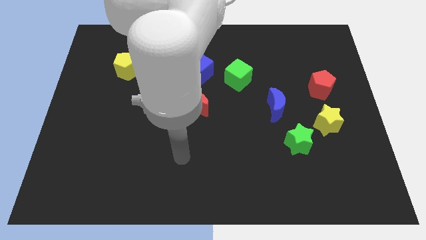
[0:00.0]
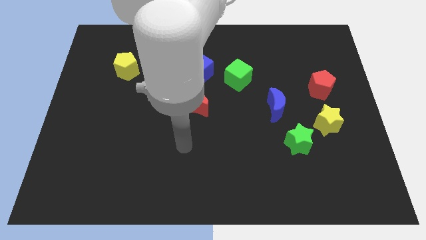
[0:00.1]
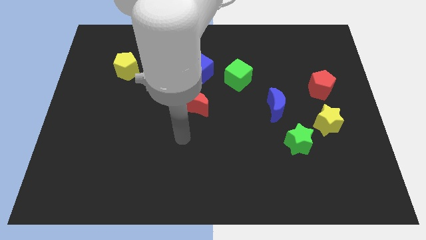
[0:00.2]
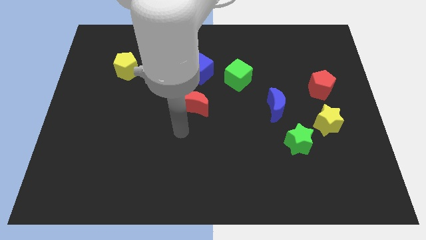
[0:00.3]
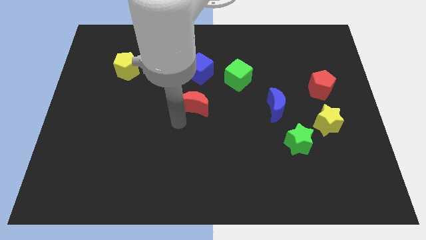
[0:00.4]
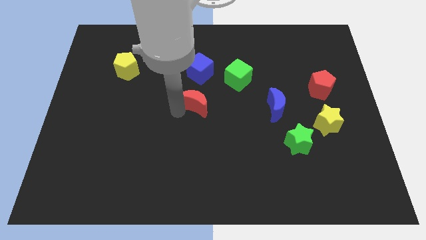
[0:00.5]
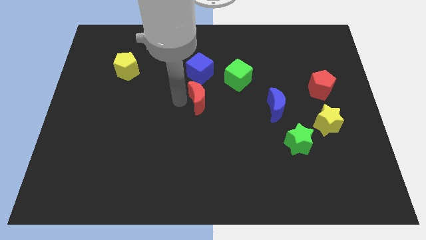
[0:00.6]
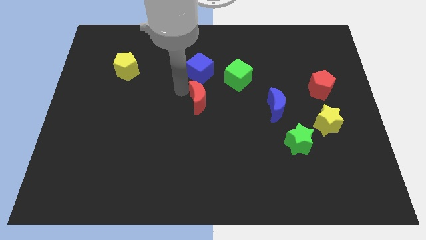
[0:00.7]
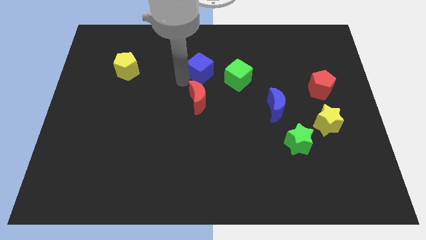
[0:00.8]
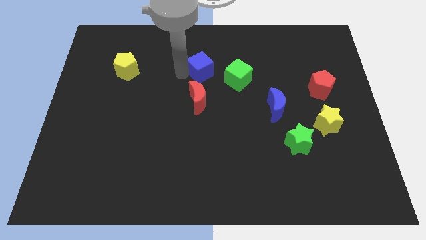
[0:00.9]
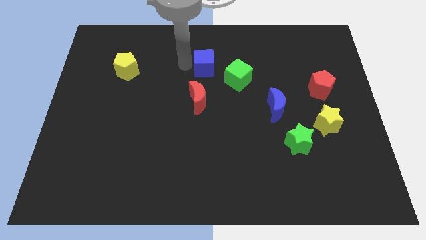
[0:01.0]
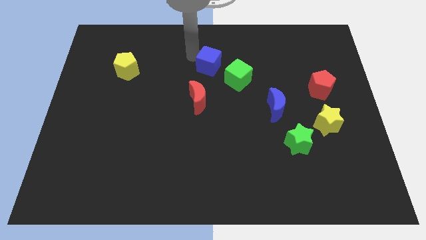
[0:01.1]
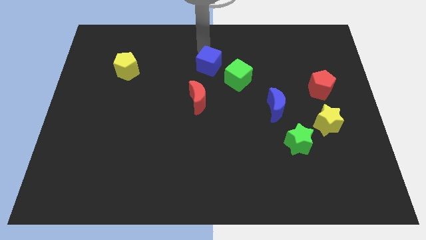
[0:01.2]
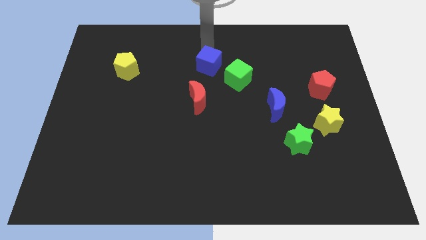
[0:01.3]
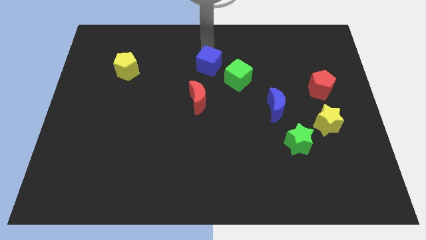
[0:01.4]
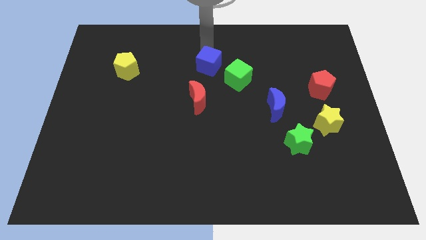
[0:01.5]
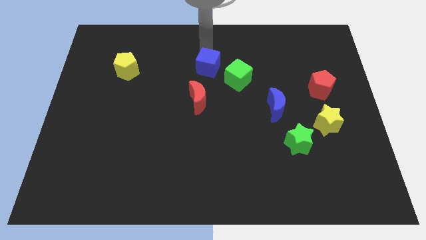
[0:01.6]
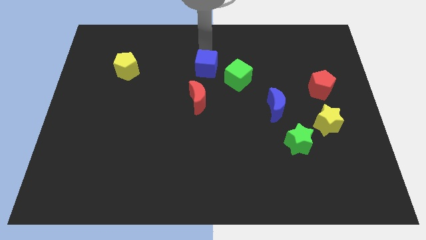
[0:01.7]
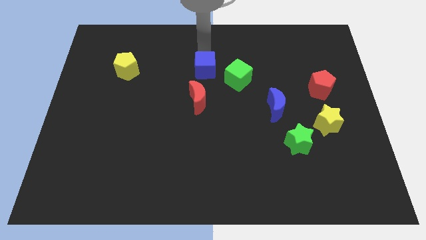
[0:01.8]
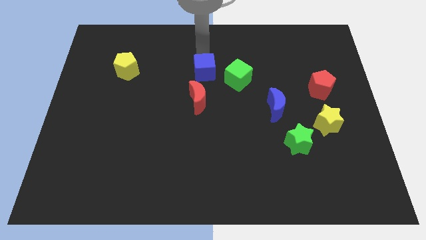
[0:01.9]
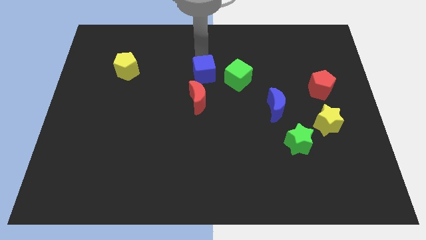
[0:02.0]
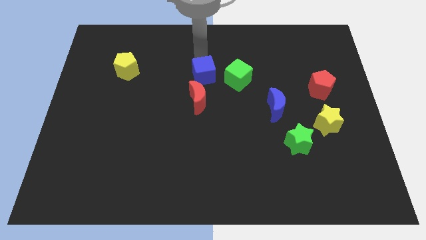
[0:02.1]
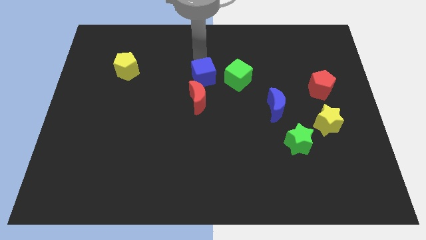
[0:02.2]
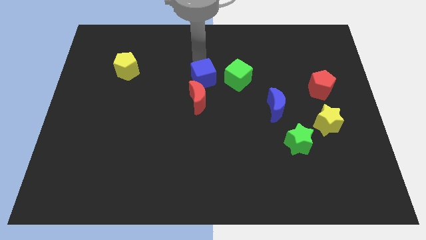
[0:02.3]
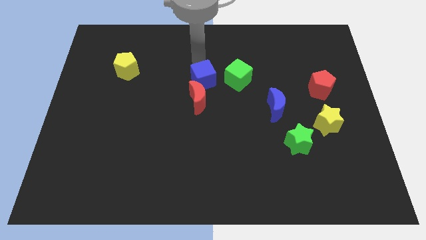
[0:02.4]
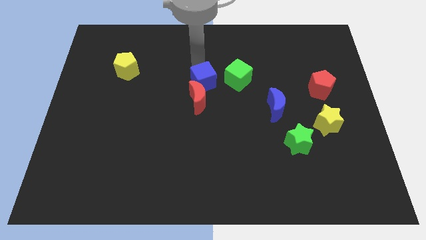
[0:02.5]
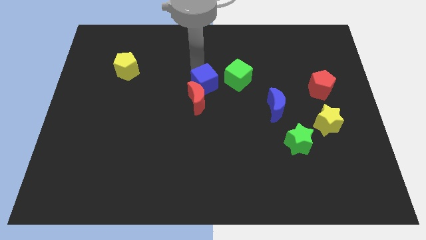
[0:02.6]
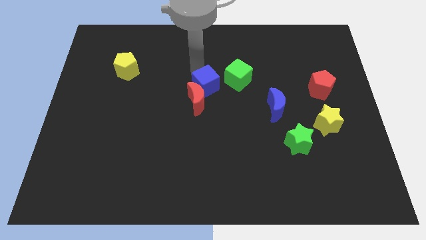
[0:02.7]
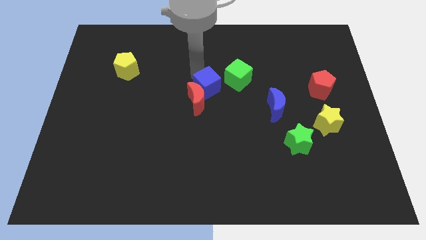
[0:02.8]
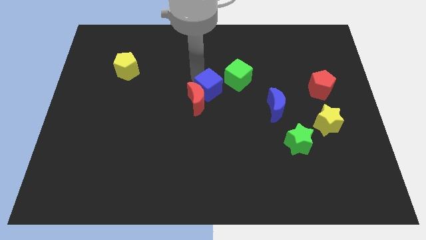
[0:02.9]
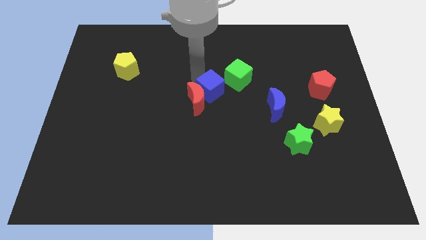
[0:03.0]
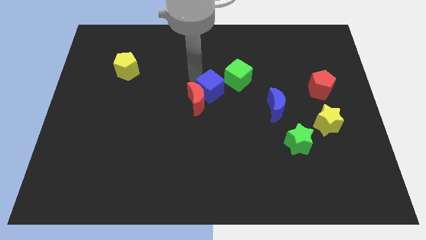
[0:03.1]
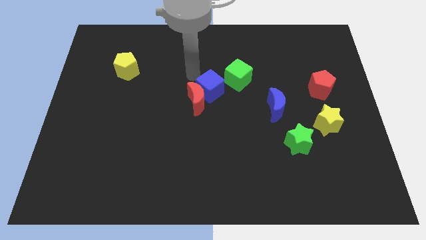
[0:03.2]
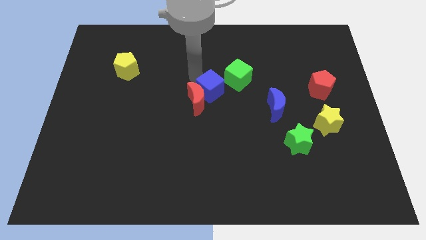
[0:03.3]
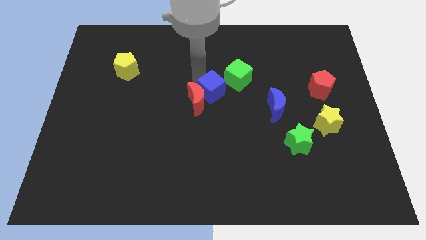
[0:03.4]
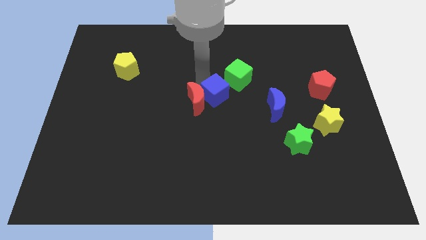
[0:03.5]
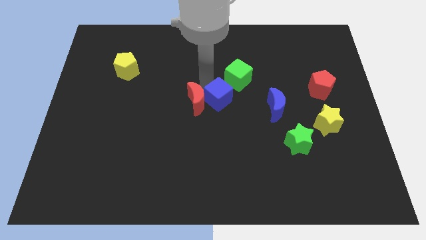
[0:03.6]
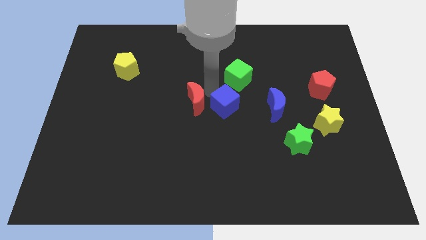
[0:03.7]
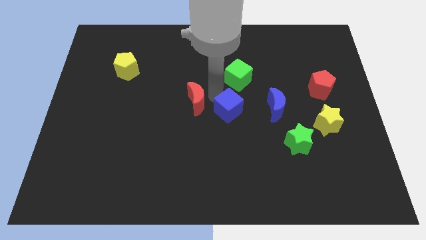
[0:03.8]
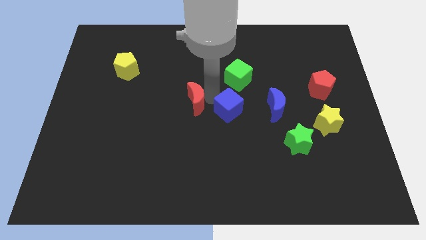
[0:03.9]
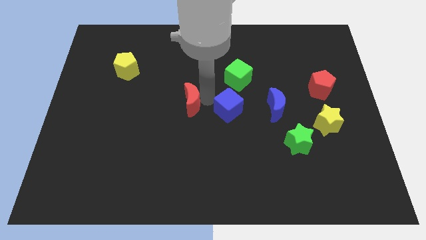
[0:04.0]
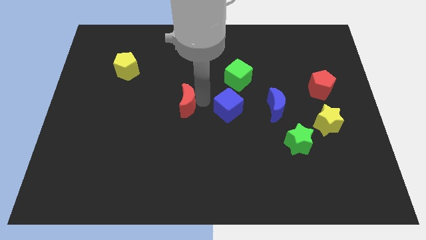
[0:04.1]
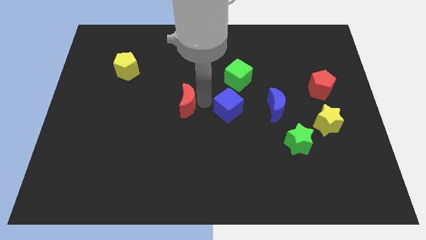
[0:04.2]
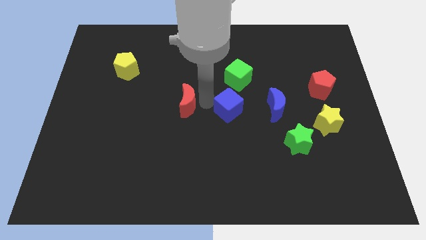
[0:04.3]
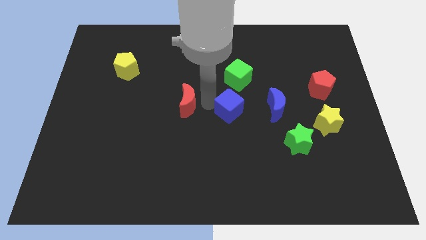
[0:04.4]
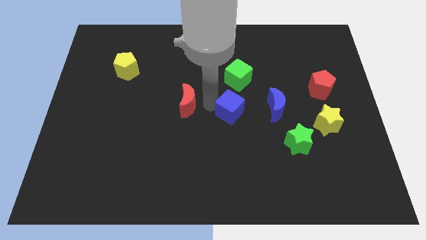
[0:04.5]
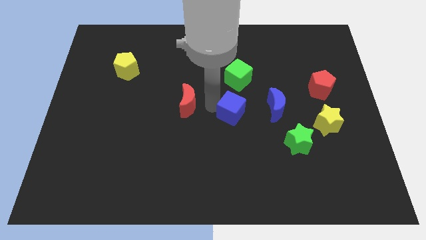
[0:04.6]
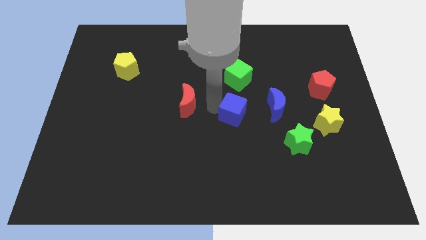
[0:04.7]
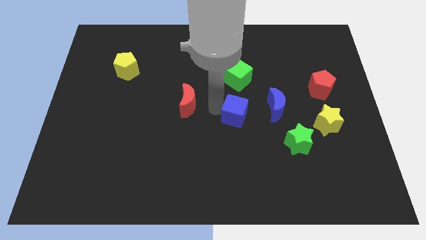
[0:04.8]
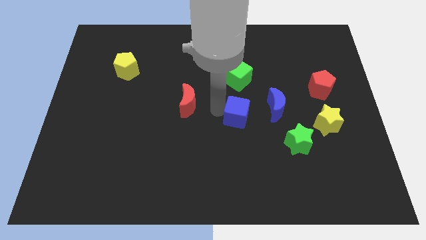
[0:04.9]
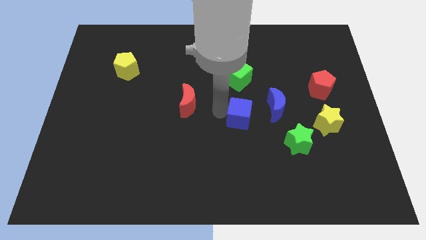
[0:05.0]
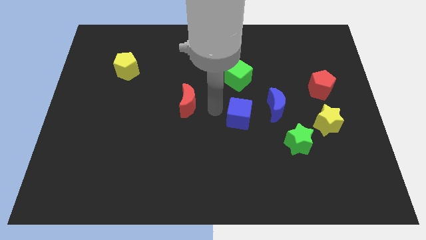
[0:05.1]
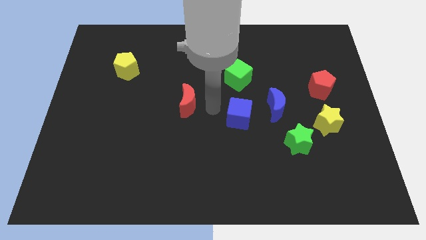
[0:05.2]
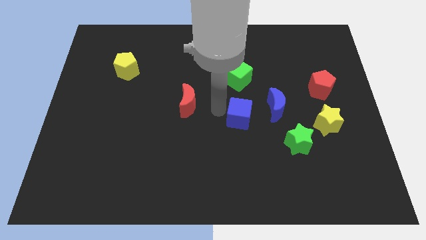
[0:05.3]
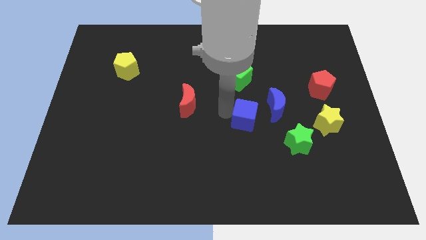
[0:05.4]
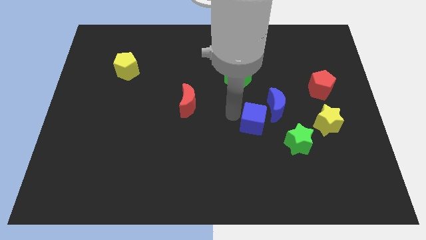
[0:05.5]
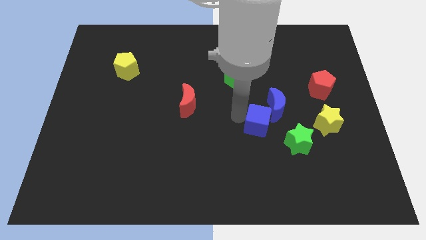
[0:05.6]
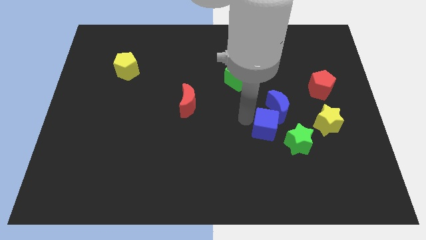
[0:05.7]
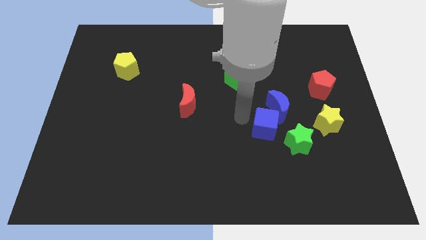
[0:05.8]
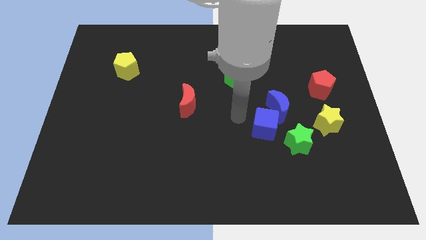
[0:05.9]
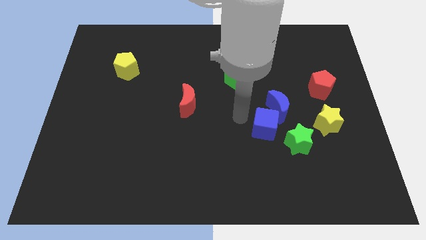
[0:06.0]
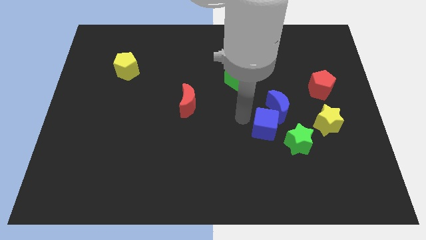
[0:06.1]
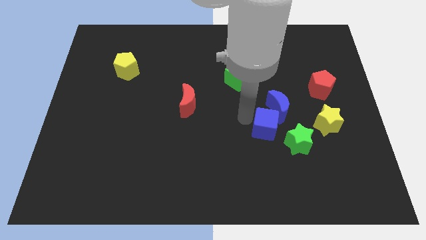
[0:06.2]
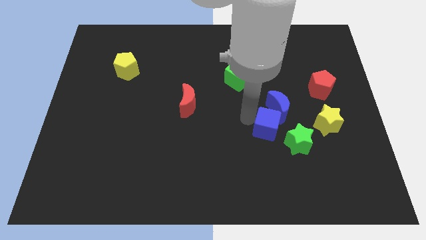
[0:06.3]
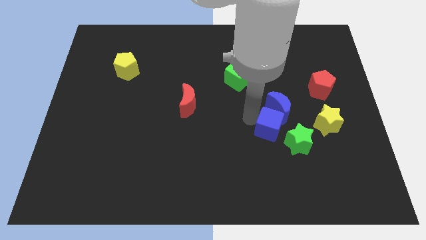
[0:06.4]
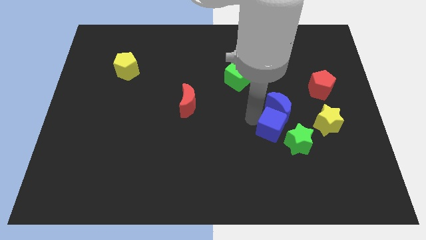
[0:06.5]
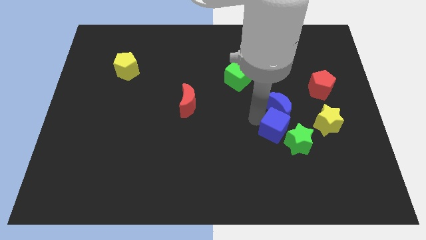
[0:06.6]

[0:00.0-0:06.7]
push the blue cube close to the green star

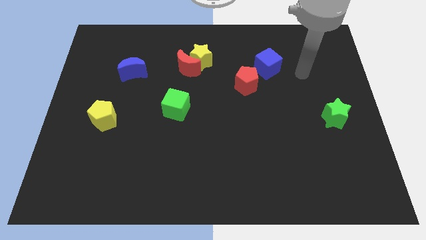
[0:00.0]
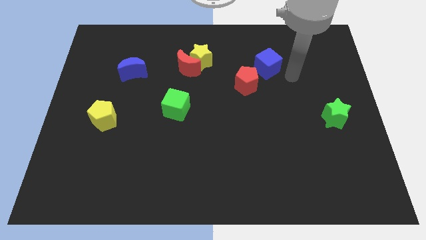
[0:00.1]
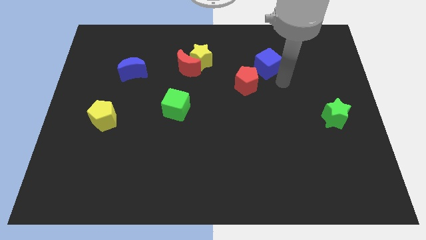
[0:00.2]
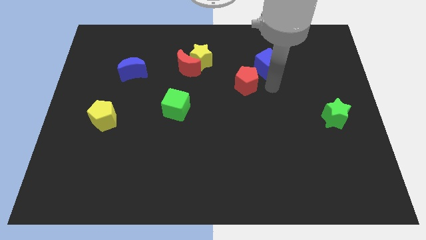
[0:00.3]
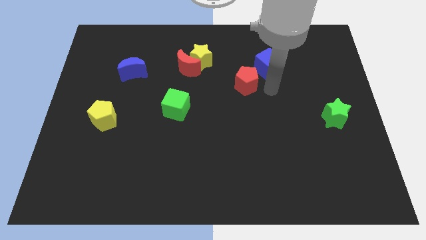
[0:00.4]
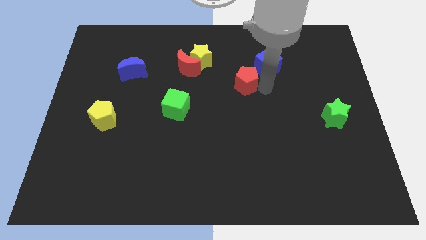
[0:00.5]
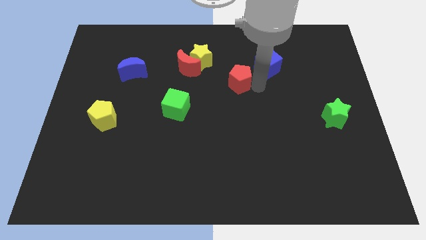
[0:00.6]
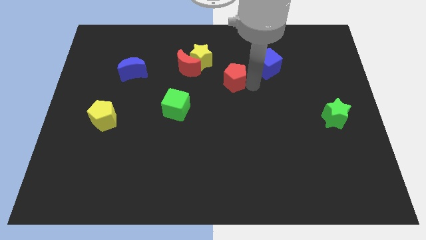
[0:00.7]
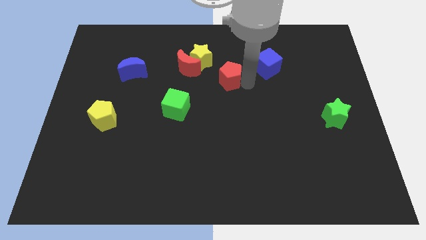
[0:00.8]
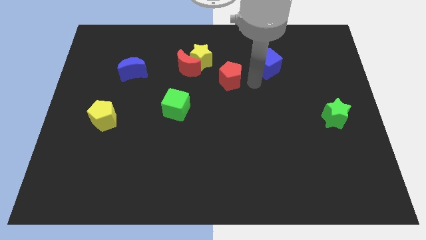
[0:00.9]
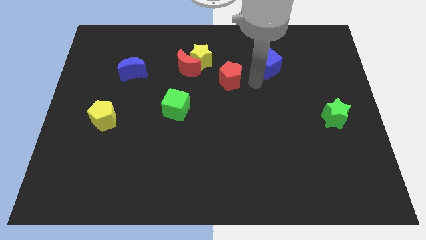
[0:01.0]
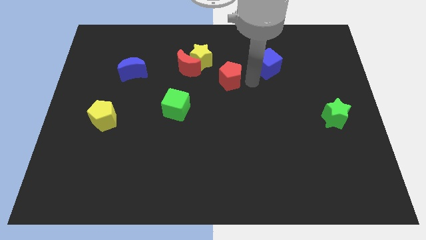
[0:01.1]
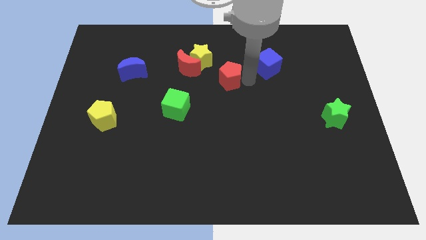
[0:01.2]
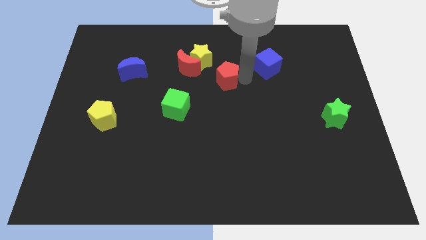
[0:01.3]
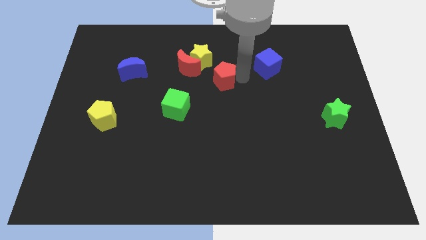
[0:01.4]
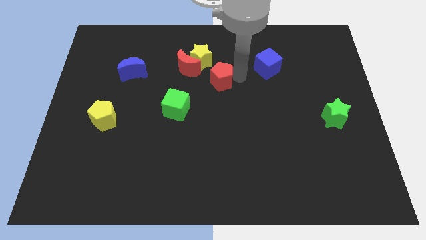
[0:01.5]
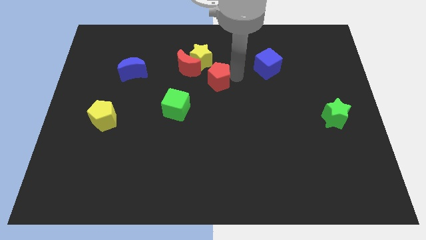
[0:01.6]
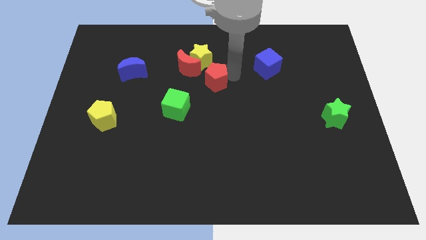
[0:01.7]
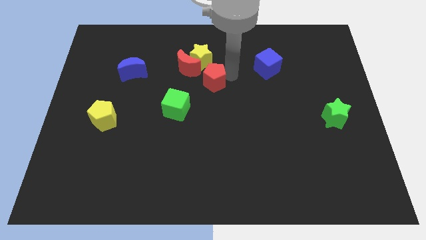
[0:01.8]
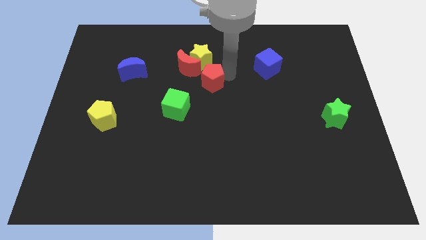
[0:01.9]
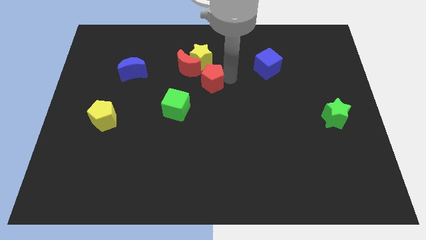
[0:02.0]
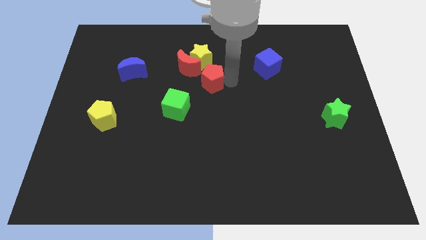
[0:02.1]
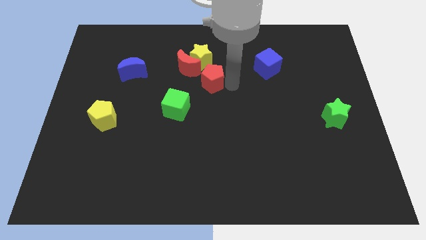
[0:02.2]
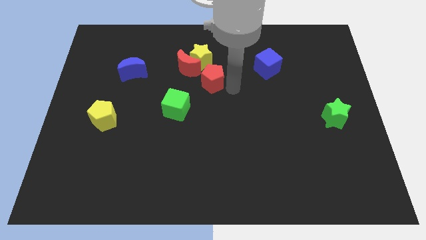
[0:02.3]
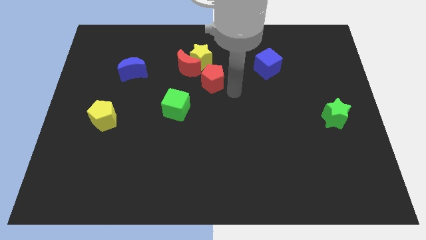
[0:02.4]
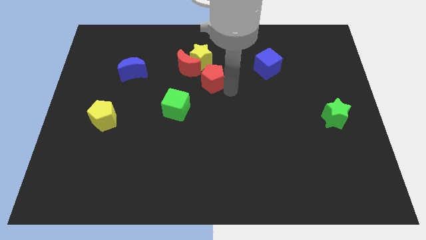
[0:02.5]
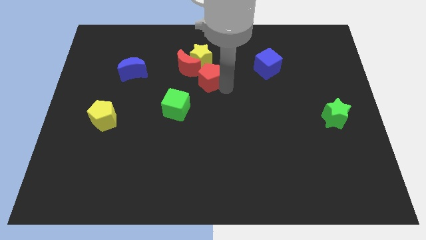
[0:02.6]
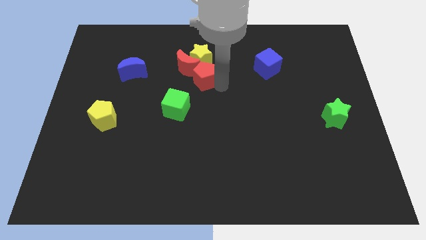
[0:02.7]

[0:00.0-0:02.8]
put the red pentagon close to the red moon
